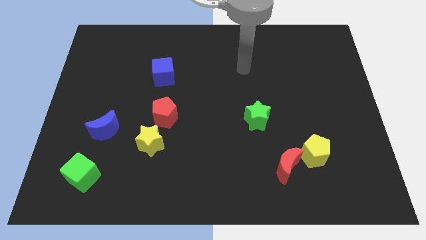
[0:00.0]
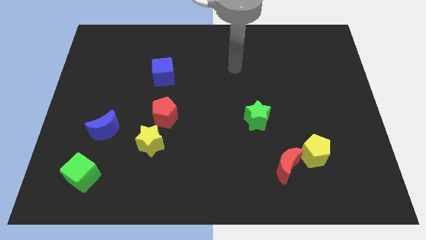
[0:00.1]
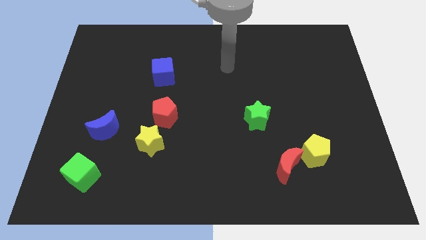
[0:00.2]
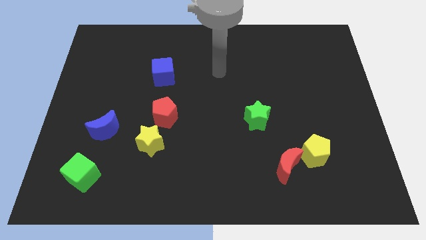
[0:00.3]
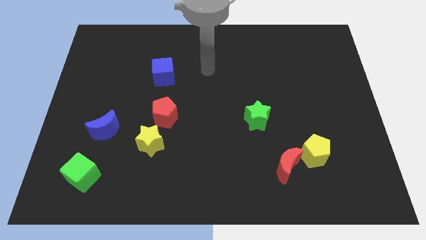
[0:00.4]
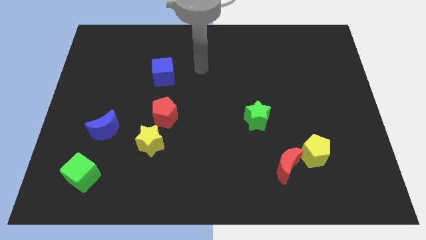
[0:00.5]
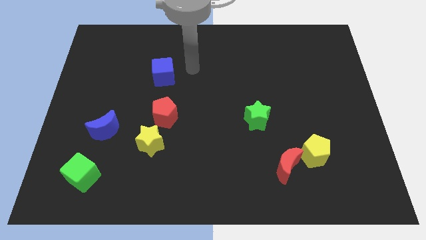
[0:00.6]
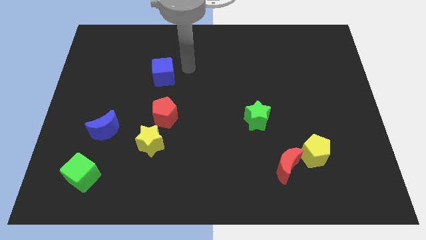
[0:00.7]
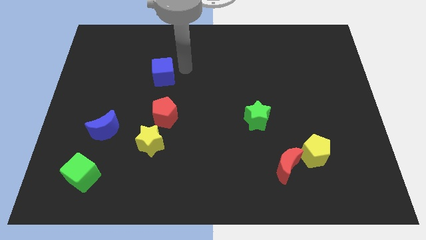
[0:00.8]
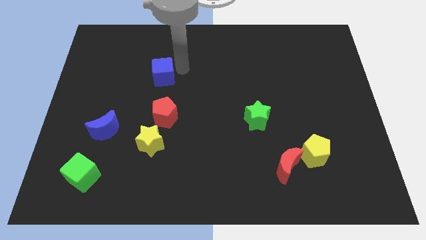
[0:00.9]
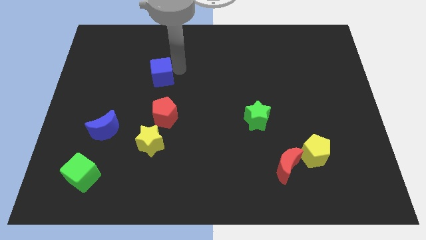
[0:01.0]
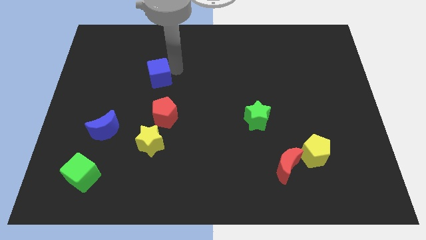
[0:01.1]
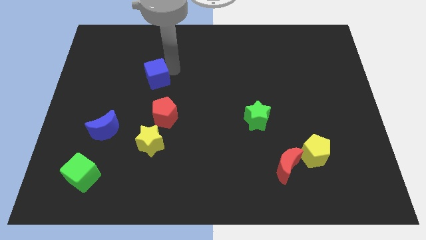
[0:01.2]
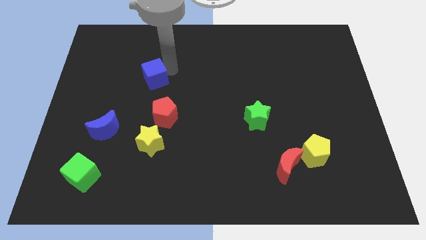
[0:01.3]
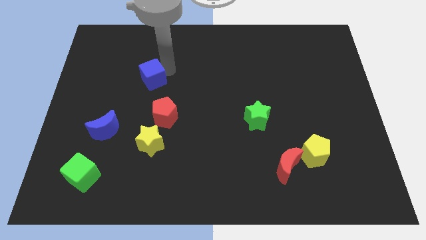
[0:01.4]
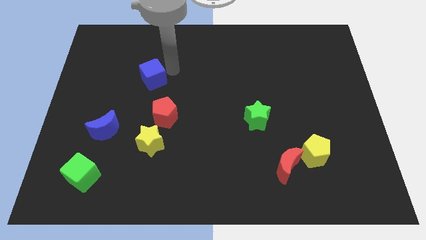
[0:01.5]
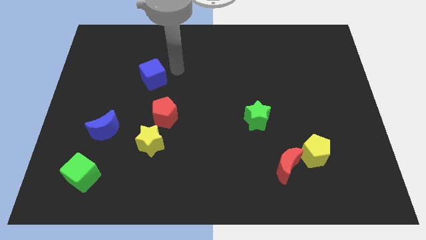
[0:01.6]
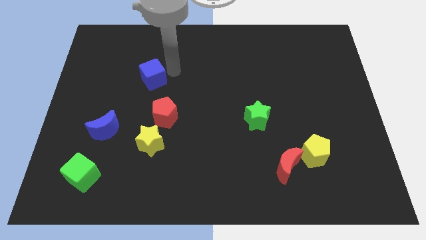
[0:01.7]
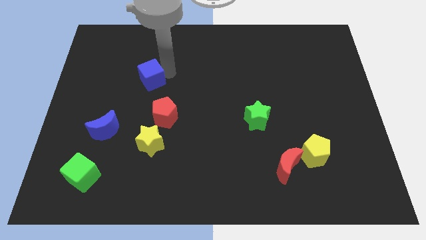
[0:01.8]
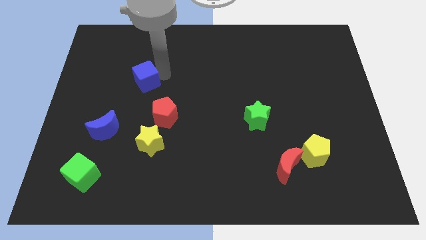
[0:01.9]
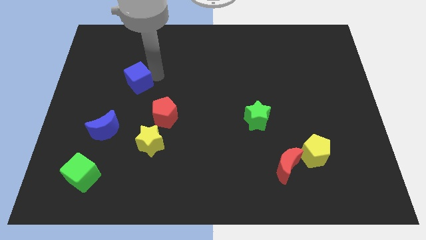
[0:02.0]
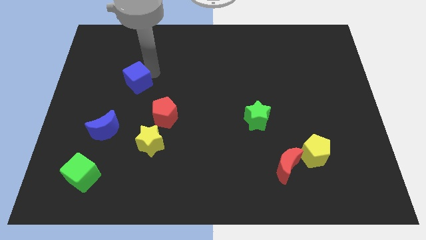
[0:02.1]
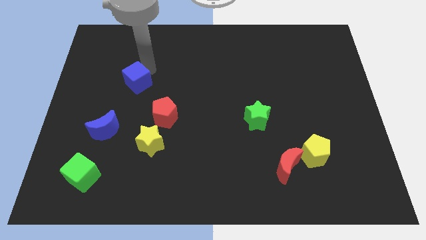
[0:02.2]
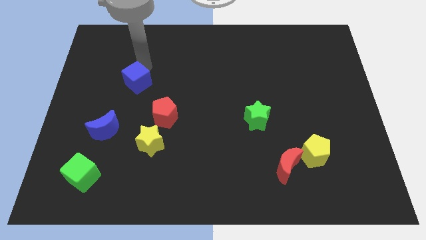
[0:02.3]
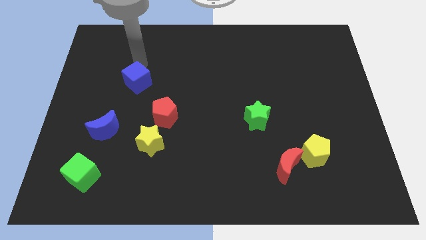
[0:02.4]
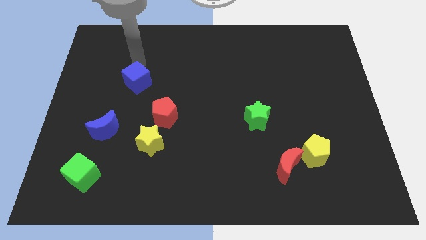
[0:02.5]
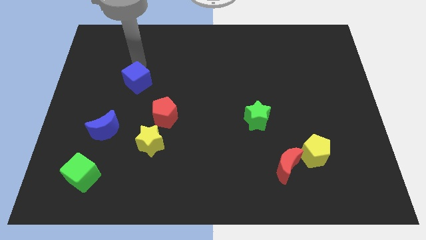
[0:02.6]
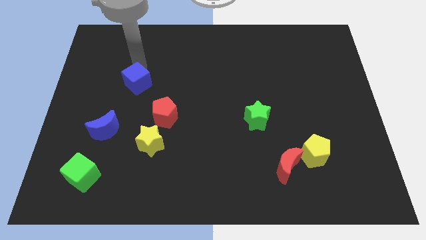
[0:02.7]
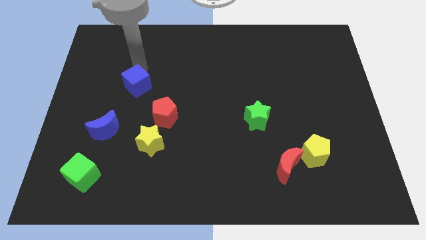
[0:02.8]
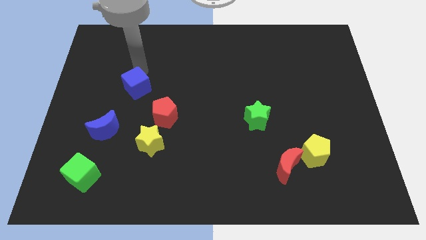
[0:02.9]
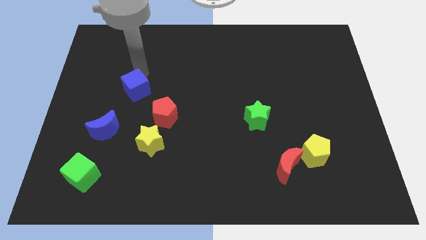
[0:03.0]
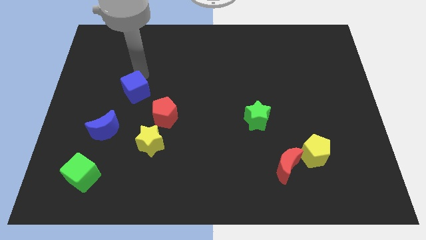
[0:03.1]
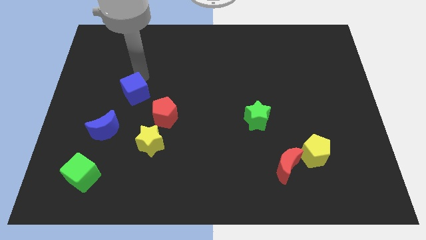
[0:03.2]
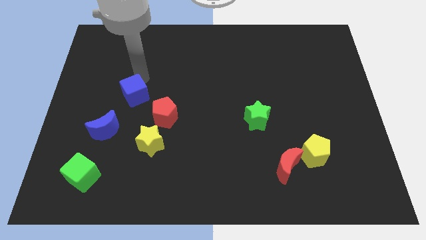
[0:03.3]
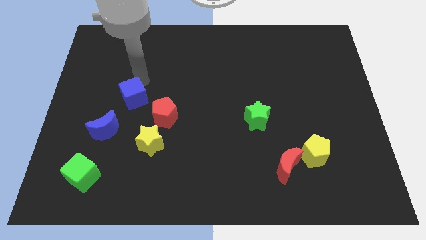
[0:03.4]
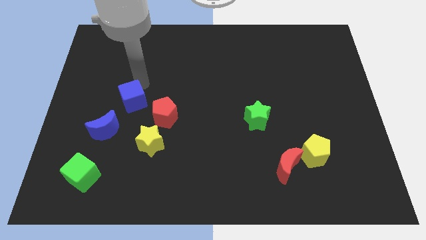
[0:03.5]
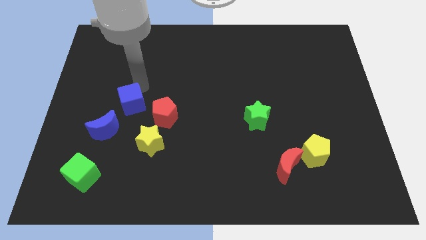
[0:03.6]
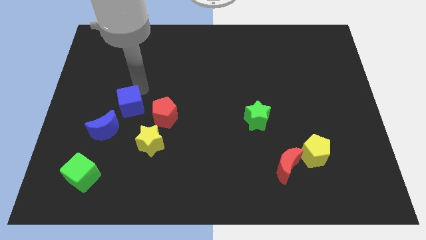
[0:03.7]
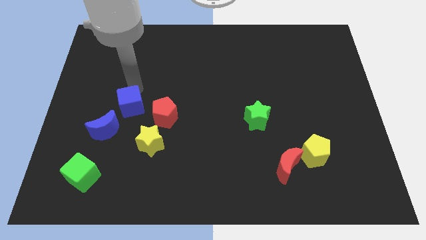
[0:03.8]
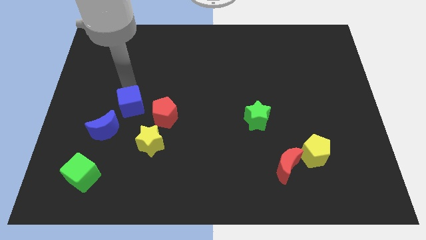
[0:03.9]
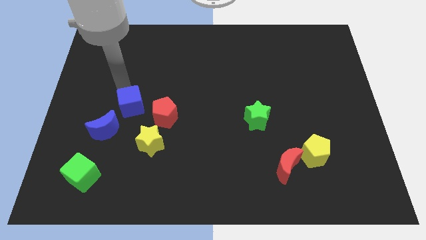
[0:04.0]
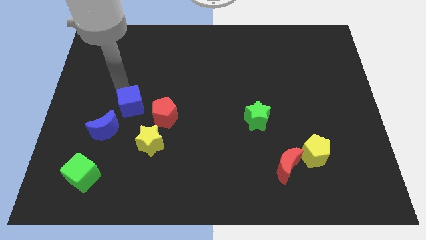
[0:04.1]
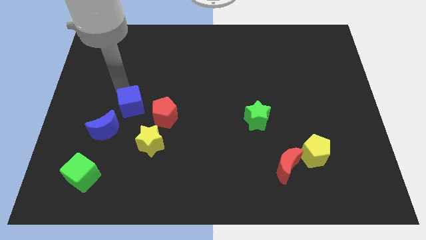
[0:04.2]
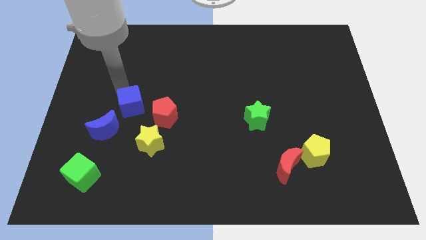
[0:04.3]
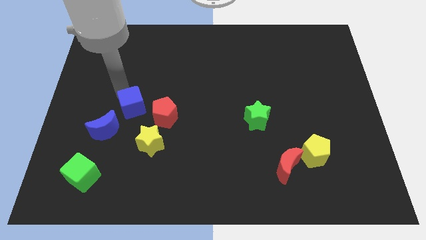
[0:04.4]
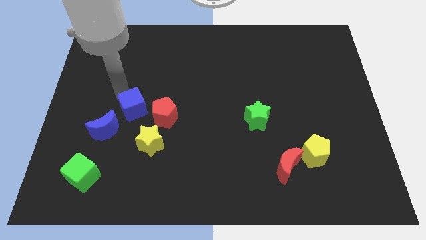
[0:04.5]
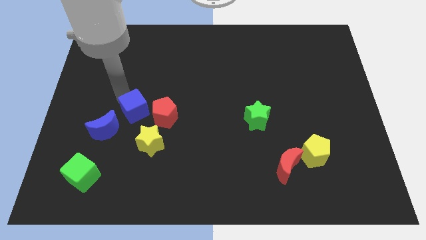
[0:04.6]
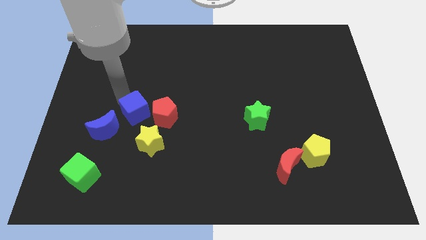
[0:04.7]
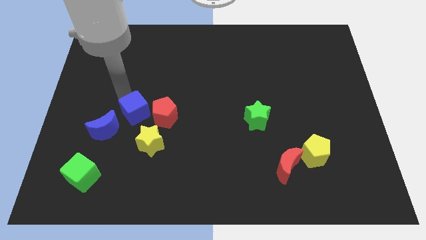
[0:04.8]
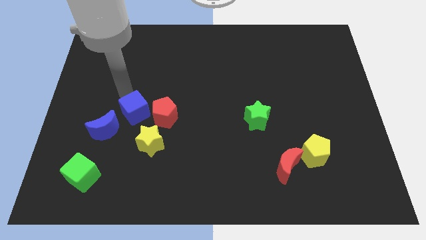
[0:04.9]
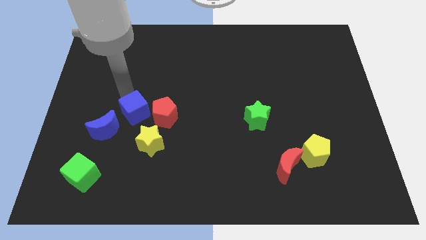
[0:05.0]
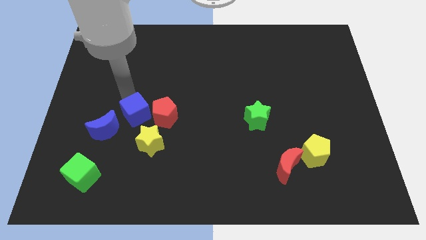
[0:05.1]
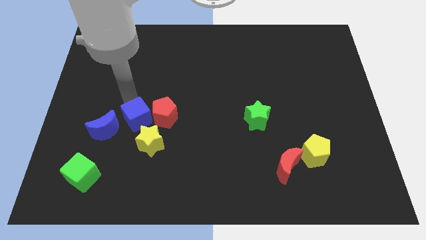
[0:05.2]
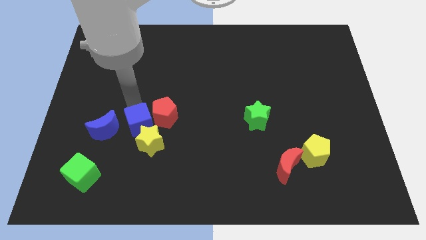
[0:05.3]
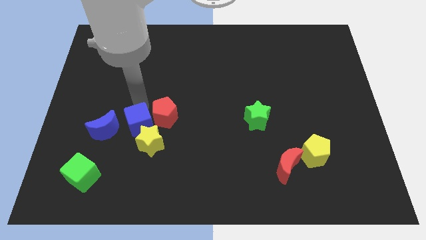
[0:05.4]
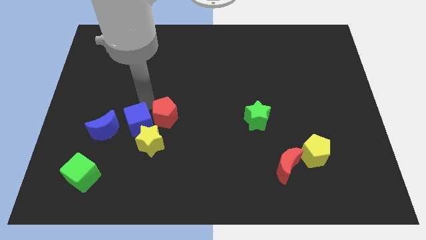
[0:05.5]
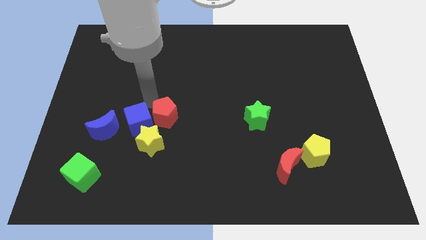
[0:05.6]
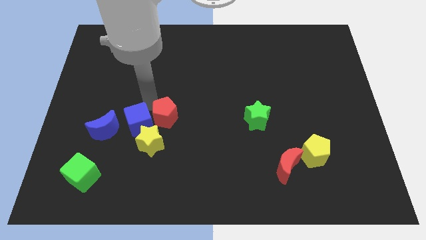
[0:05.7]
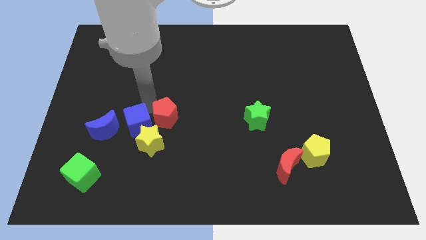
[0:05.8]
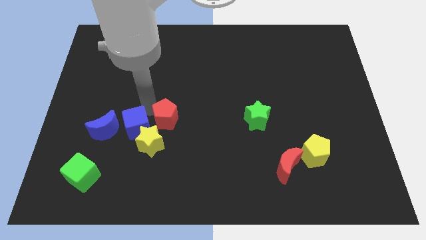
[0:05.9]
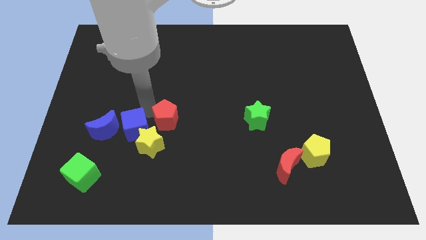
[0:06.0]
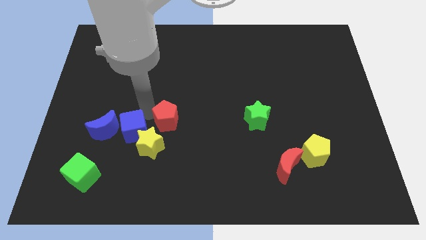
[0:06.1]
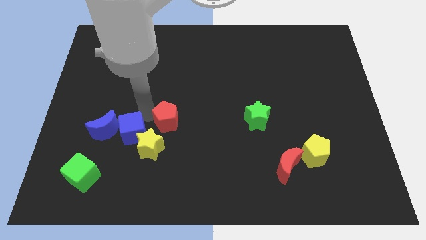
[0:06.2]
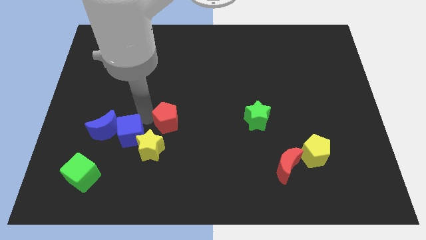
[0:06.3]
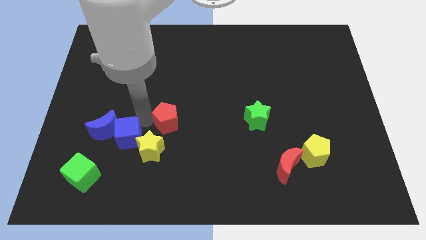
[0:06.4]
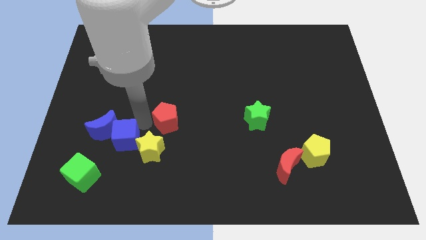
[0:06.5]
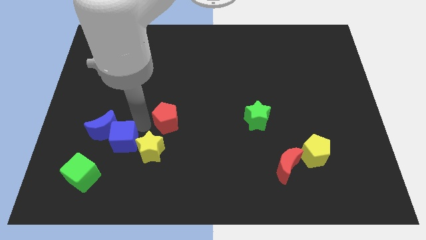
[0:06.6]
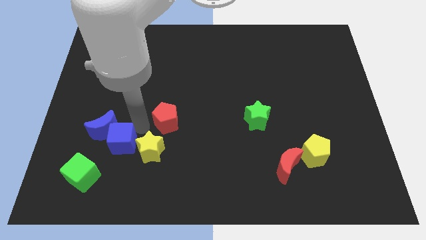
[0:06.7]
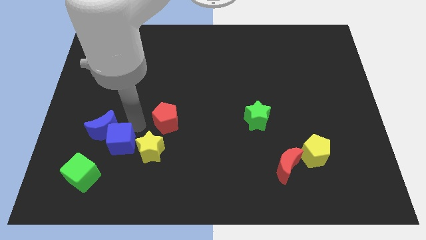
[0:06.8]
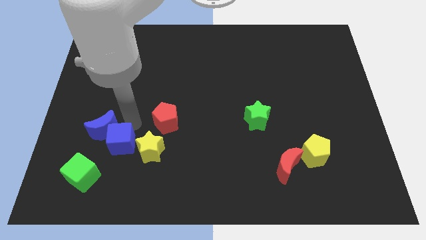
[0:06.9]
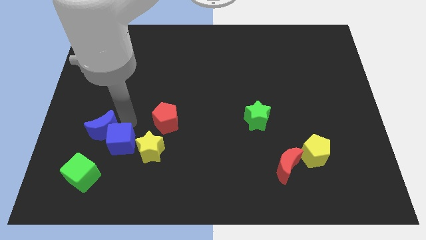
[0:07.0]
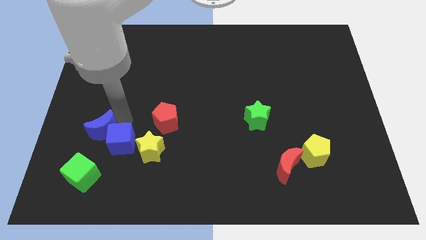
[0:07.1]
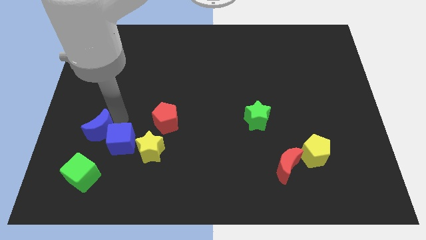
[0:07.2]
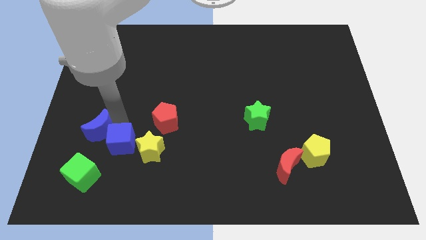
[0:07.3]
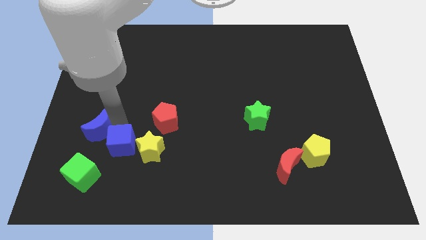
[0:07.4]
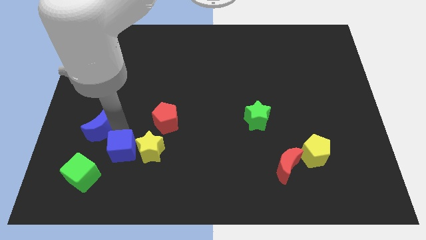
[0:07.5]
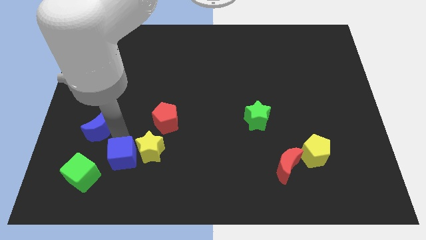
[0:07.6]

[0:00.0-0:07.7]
move the blue cube right of the green cube
